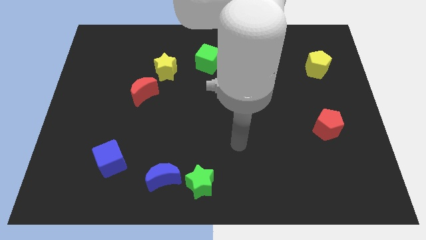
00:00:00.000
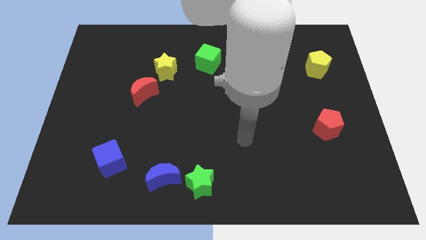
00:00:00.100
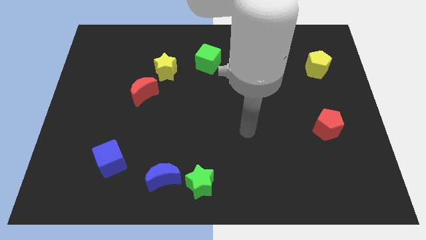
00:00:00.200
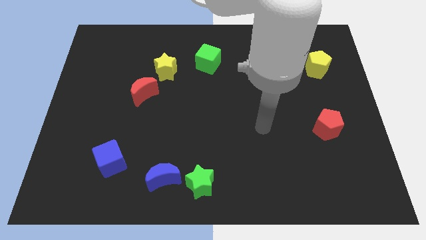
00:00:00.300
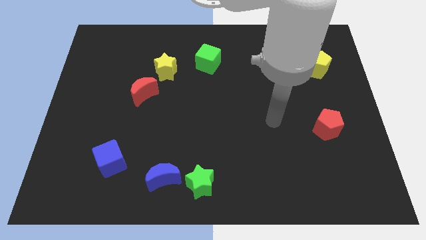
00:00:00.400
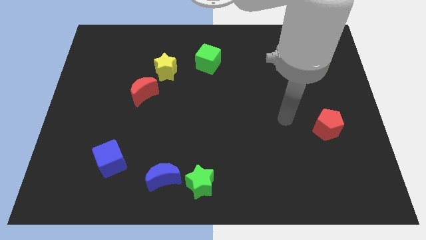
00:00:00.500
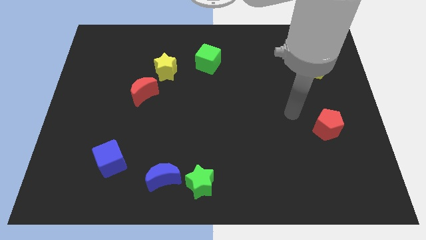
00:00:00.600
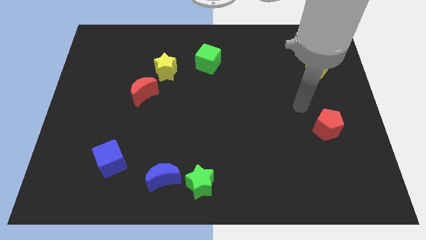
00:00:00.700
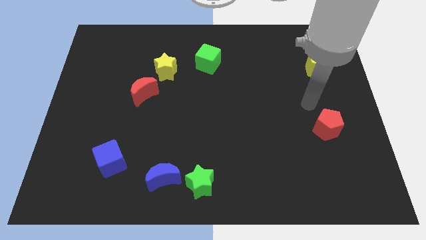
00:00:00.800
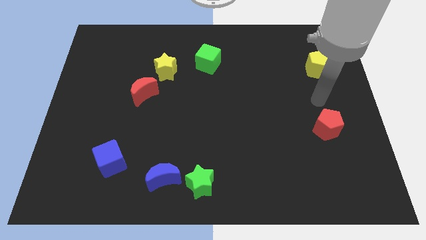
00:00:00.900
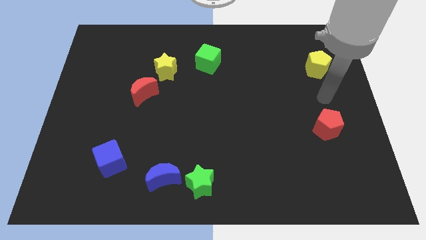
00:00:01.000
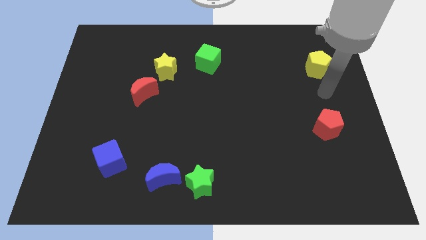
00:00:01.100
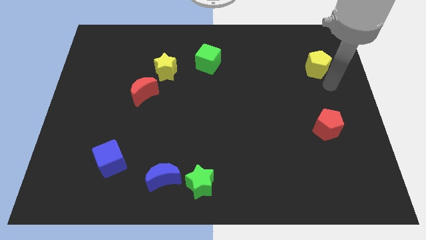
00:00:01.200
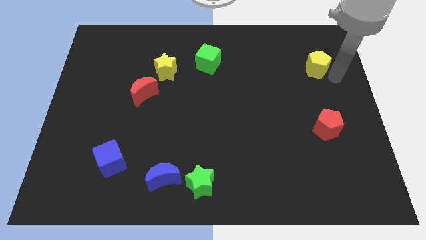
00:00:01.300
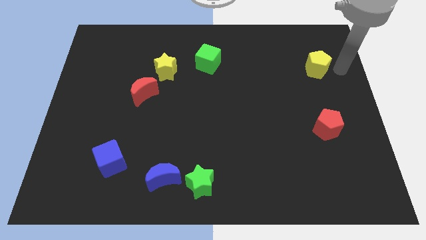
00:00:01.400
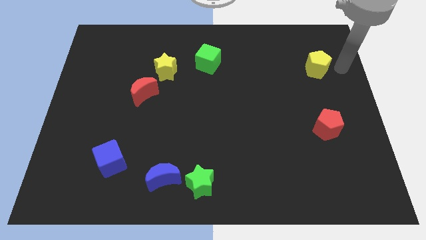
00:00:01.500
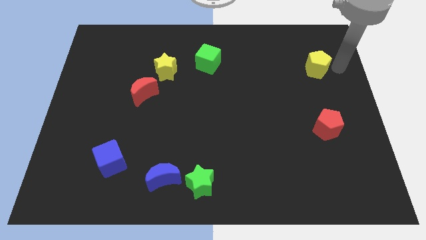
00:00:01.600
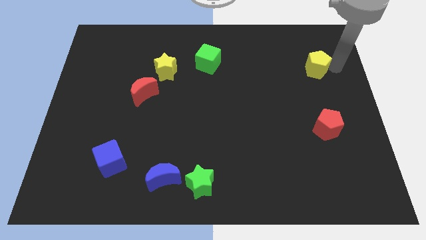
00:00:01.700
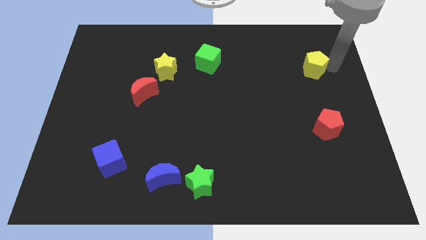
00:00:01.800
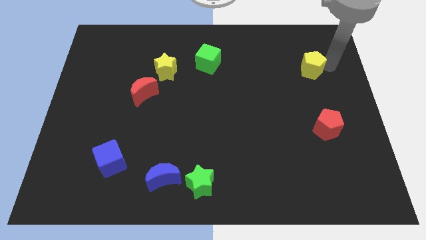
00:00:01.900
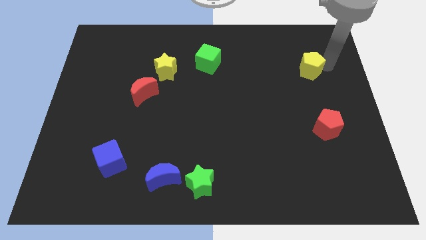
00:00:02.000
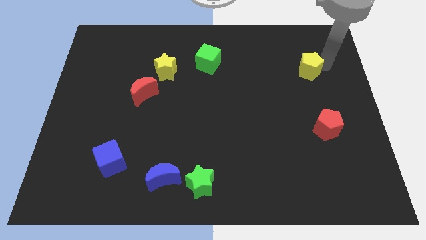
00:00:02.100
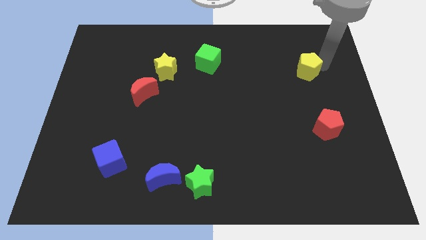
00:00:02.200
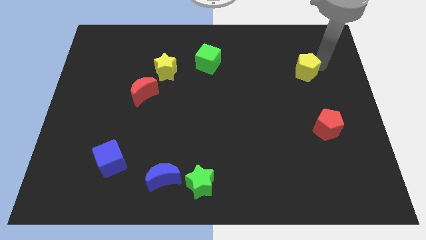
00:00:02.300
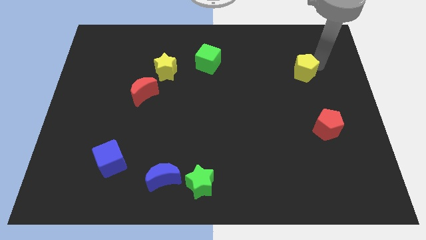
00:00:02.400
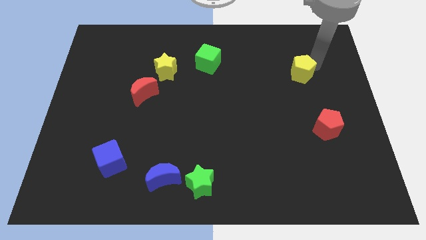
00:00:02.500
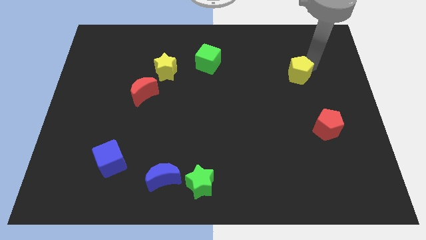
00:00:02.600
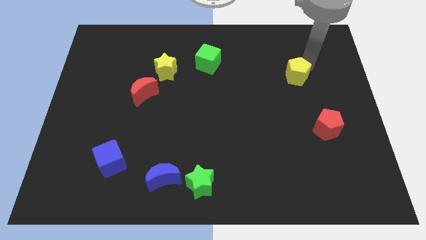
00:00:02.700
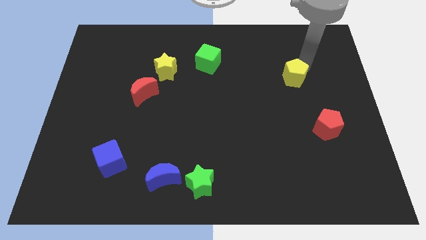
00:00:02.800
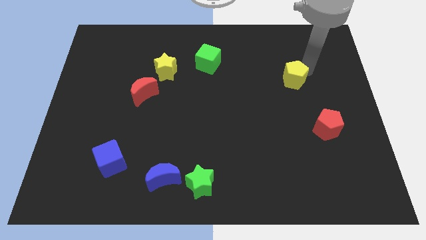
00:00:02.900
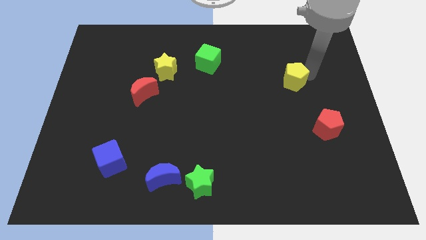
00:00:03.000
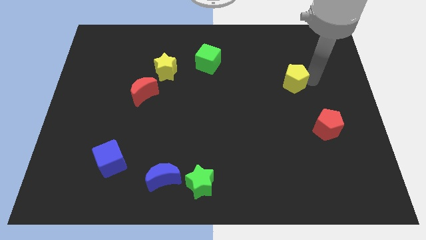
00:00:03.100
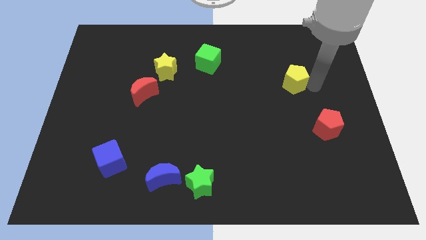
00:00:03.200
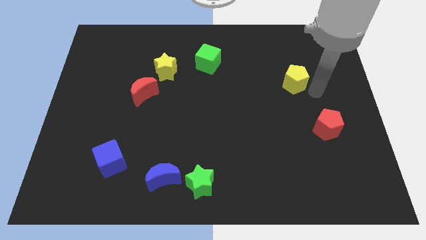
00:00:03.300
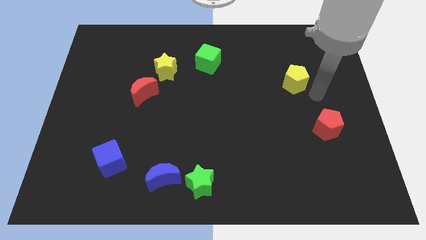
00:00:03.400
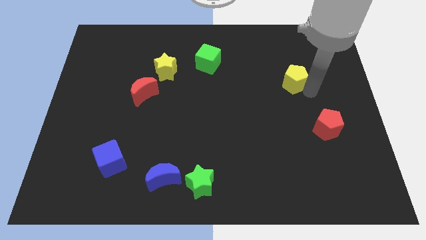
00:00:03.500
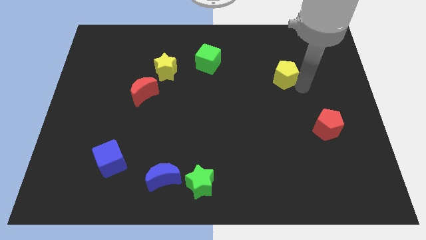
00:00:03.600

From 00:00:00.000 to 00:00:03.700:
push the yellow pentagon slightly to the left

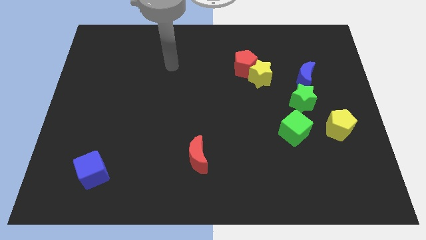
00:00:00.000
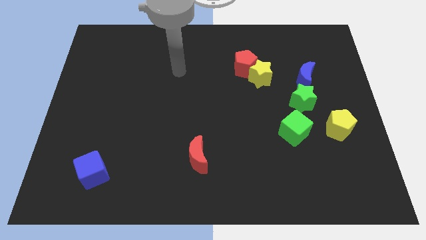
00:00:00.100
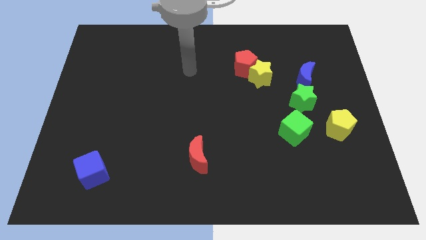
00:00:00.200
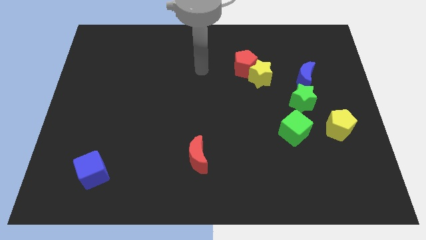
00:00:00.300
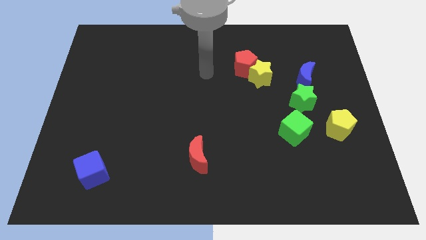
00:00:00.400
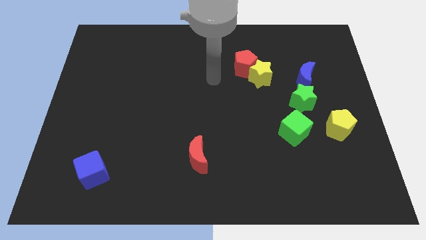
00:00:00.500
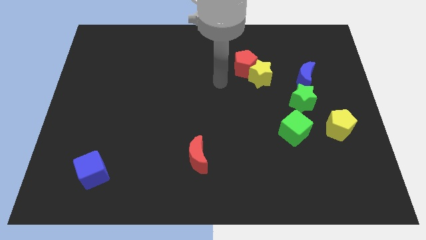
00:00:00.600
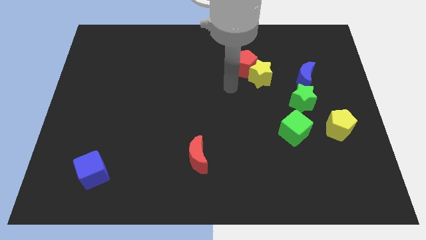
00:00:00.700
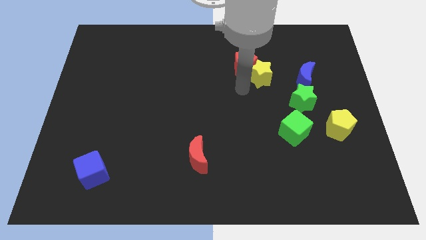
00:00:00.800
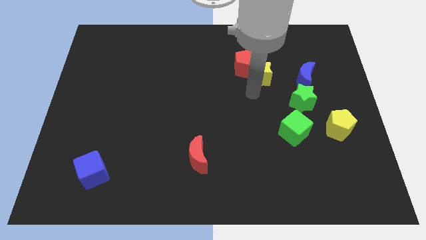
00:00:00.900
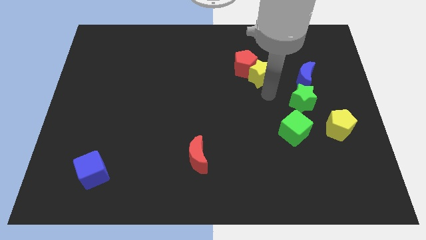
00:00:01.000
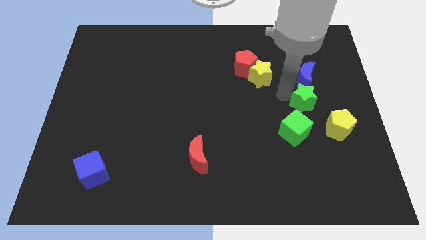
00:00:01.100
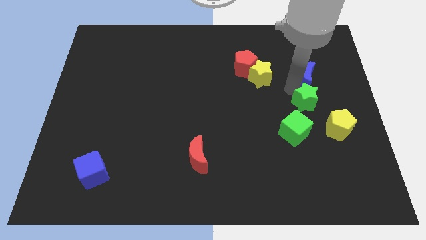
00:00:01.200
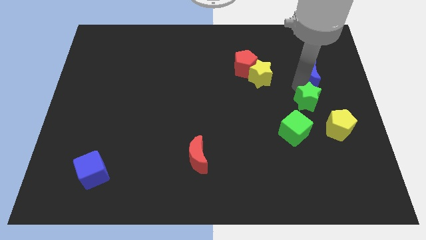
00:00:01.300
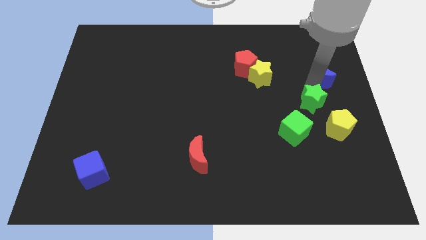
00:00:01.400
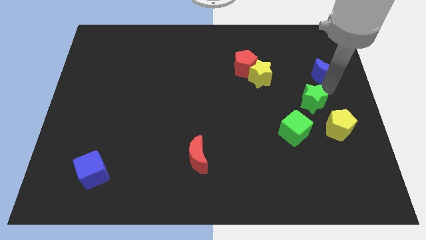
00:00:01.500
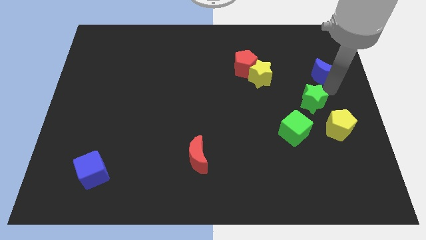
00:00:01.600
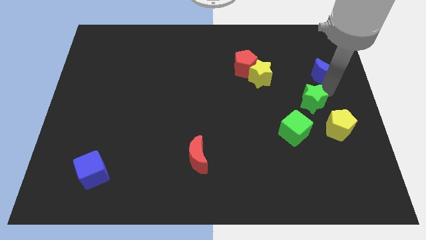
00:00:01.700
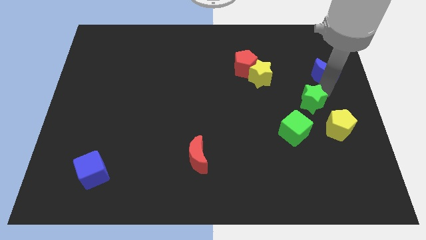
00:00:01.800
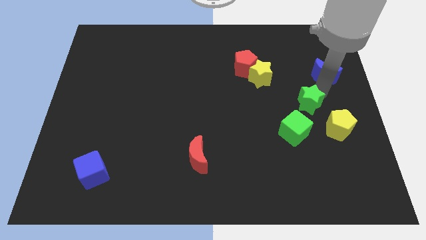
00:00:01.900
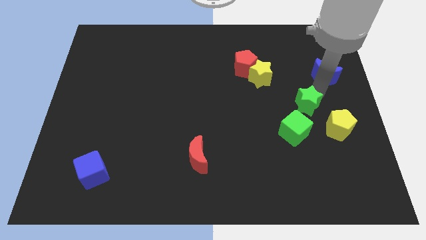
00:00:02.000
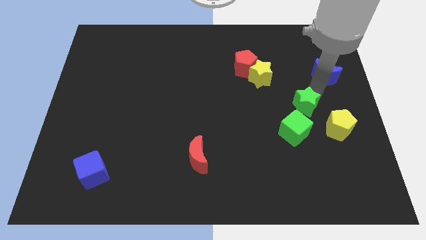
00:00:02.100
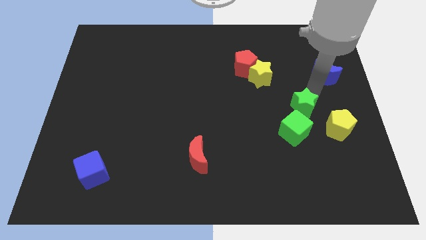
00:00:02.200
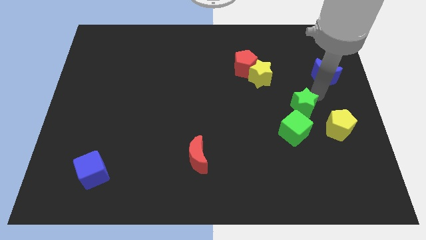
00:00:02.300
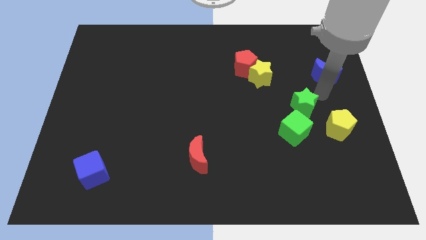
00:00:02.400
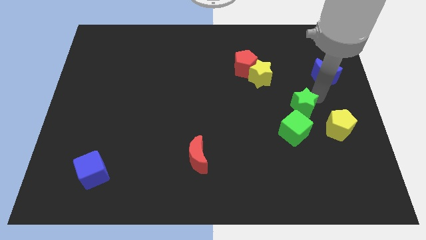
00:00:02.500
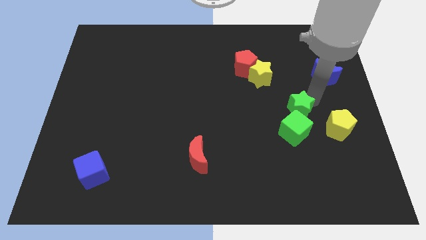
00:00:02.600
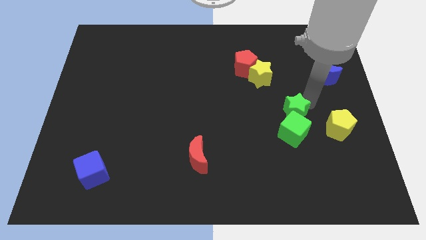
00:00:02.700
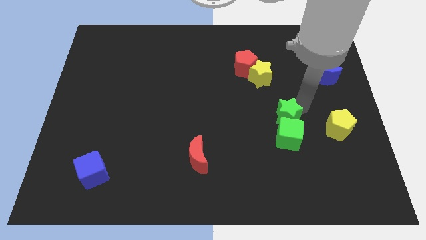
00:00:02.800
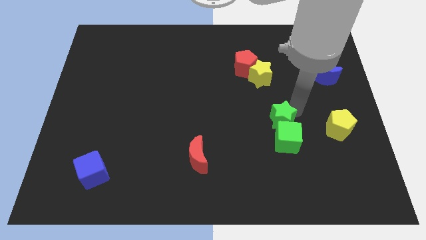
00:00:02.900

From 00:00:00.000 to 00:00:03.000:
slide the green star downwards and left diagonally a little bit

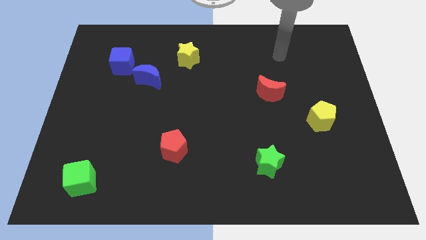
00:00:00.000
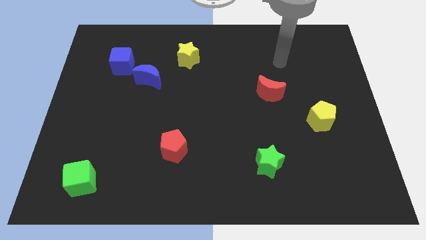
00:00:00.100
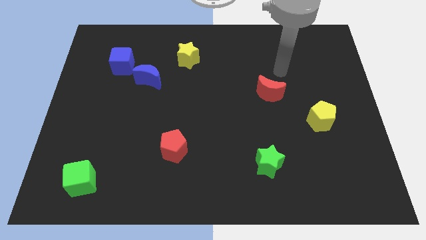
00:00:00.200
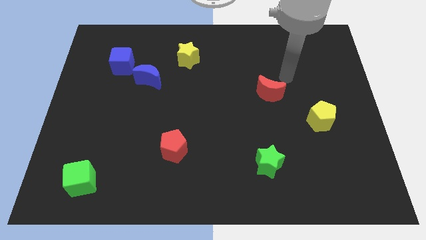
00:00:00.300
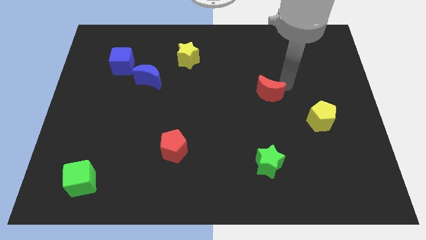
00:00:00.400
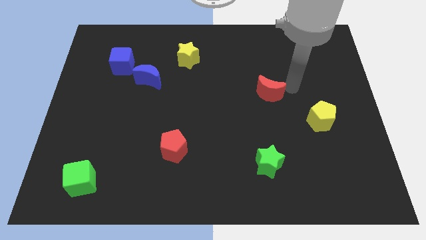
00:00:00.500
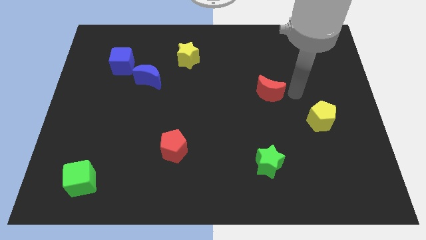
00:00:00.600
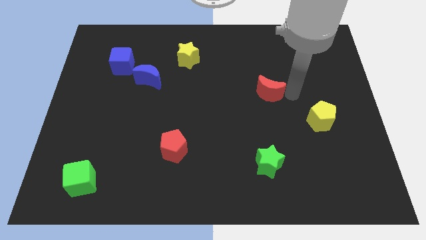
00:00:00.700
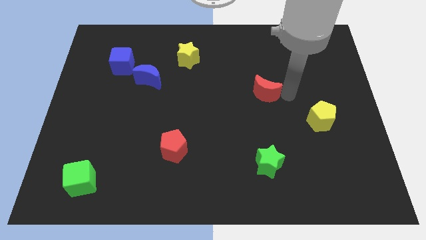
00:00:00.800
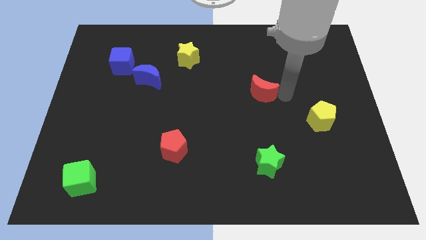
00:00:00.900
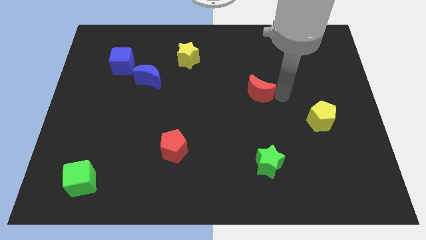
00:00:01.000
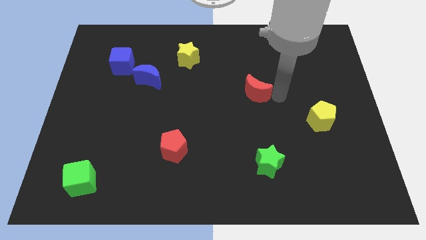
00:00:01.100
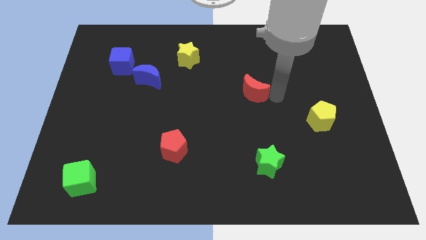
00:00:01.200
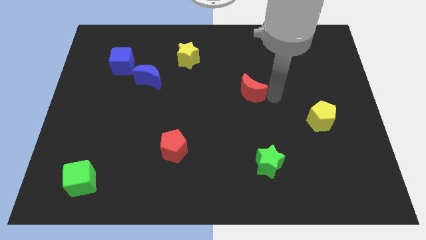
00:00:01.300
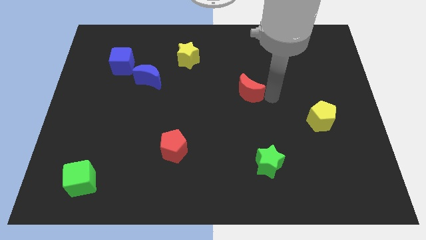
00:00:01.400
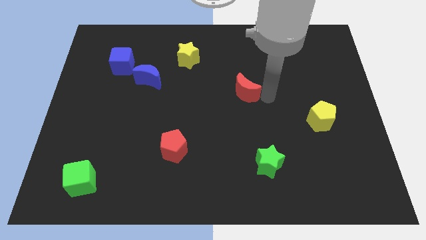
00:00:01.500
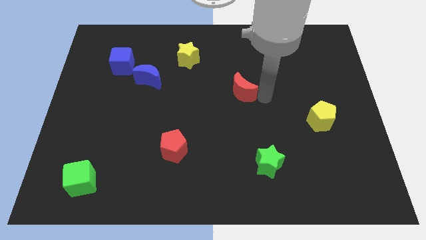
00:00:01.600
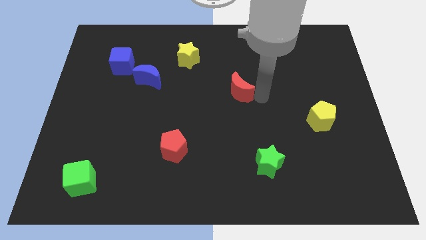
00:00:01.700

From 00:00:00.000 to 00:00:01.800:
slightly push the red moon left
